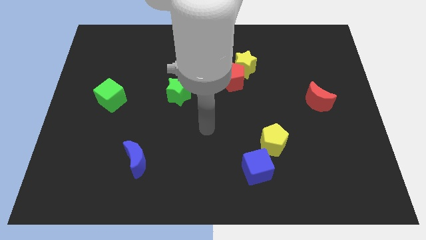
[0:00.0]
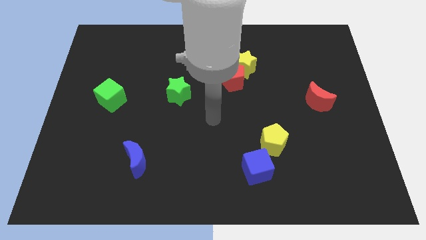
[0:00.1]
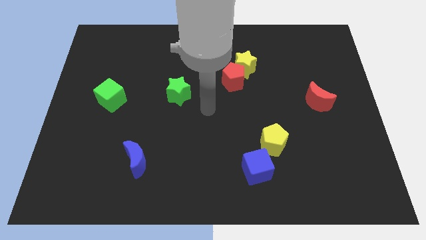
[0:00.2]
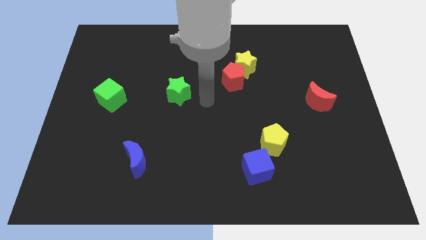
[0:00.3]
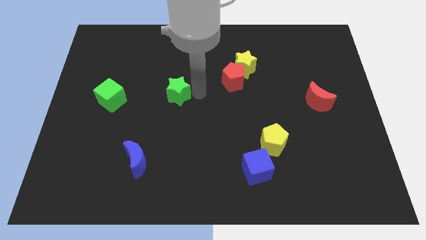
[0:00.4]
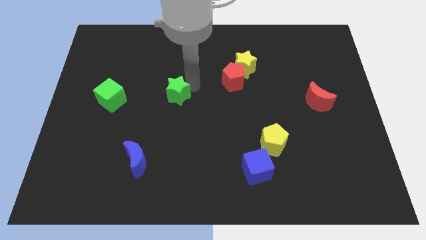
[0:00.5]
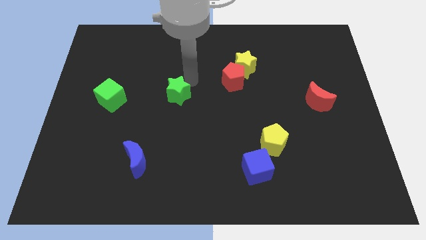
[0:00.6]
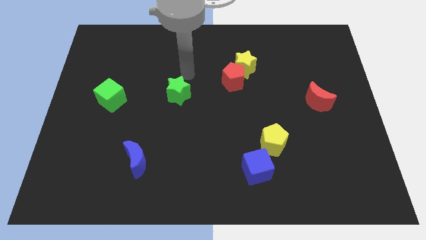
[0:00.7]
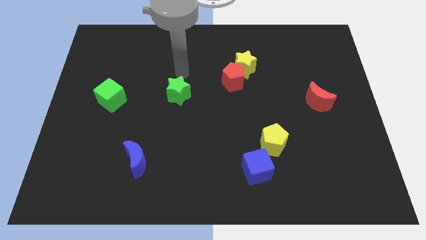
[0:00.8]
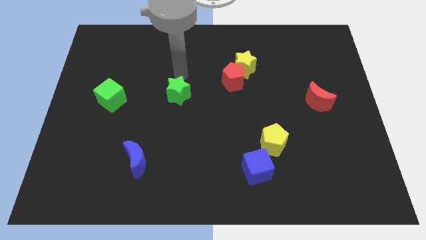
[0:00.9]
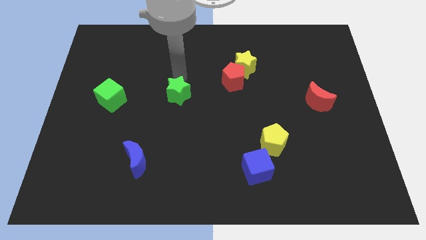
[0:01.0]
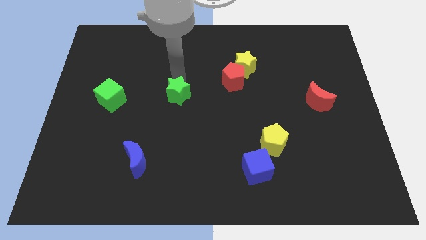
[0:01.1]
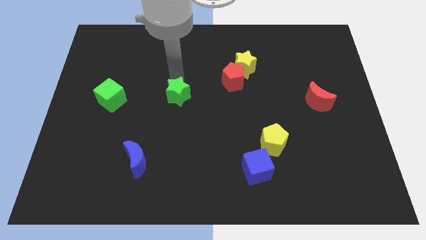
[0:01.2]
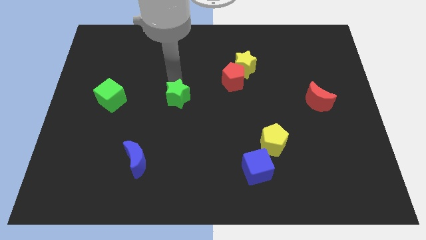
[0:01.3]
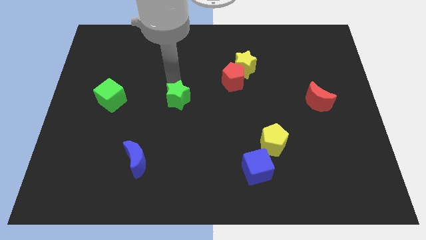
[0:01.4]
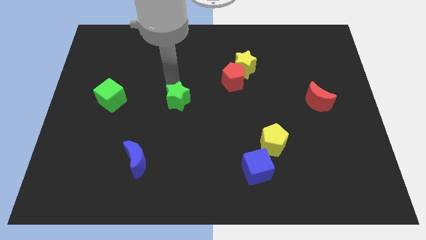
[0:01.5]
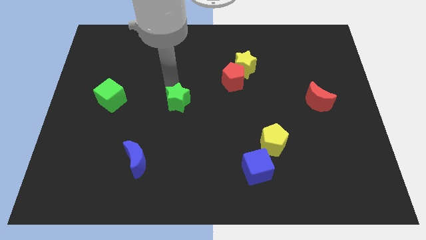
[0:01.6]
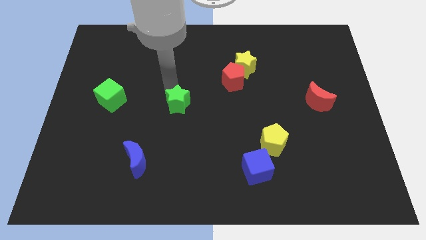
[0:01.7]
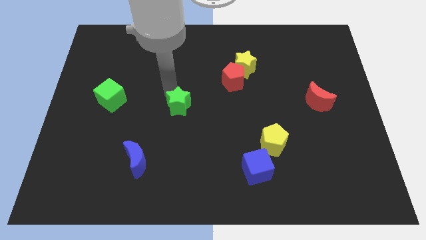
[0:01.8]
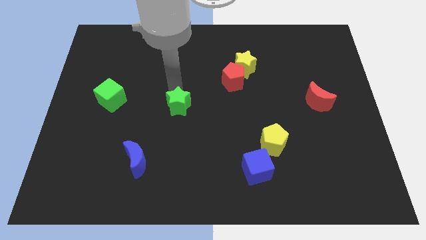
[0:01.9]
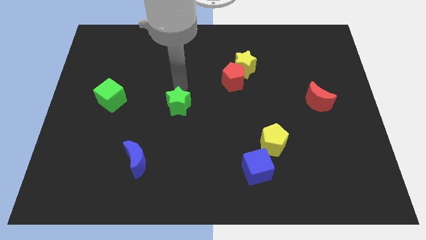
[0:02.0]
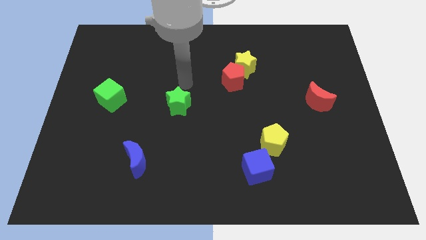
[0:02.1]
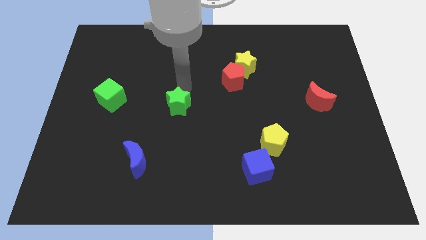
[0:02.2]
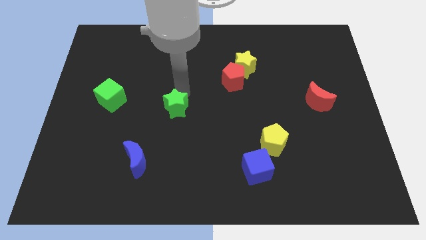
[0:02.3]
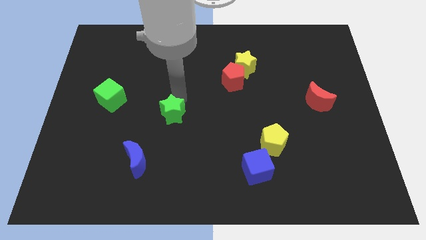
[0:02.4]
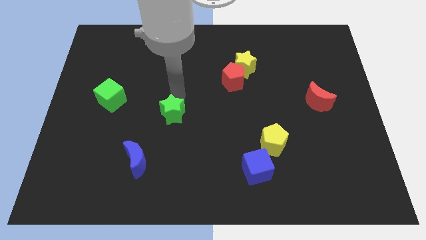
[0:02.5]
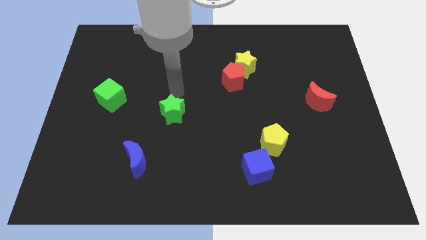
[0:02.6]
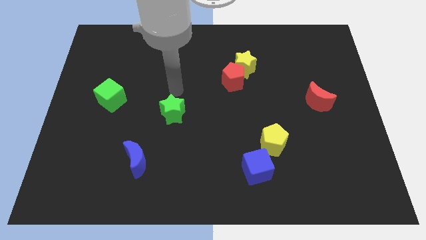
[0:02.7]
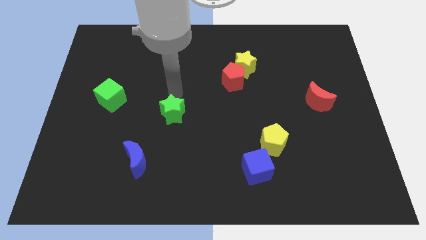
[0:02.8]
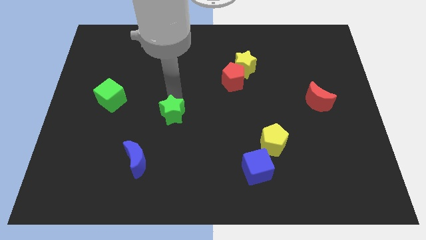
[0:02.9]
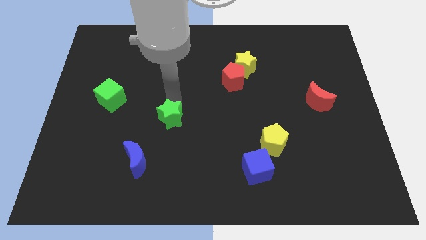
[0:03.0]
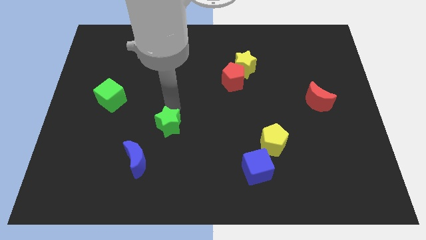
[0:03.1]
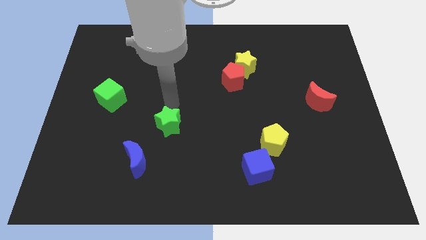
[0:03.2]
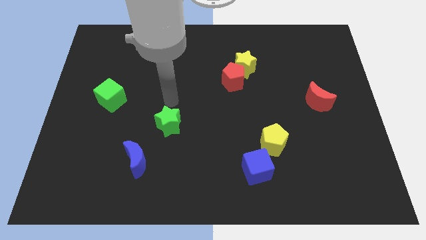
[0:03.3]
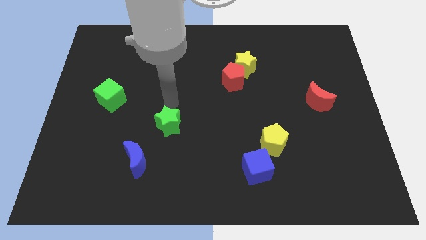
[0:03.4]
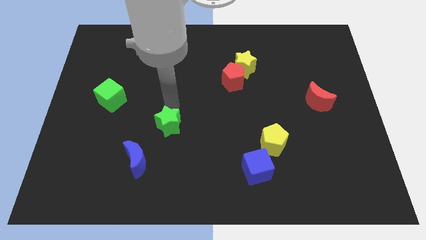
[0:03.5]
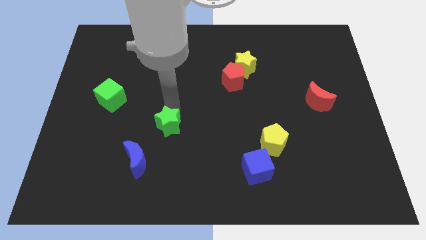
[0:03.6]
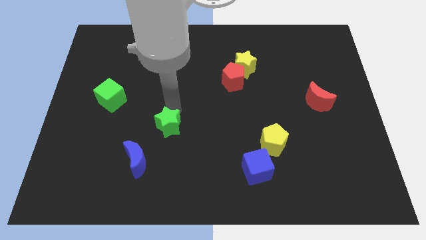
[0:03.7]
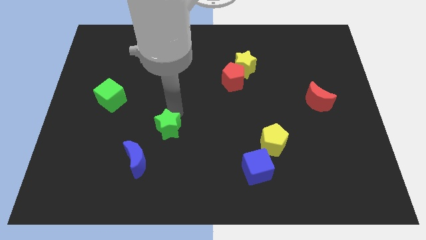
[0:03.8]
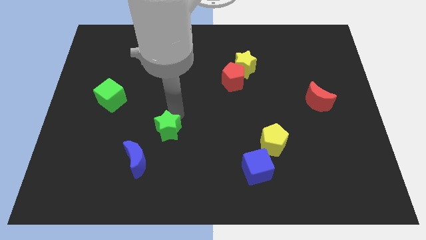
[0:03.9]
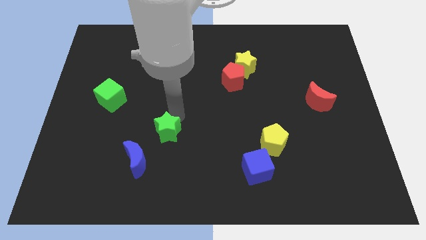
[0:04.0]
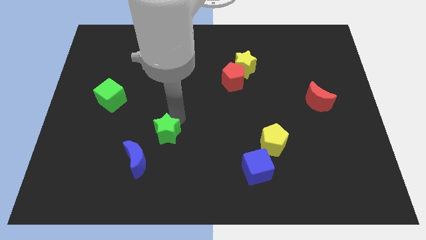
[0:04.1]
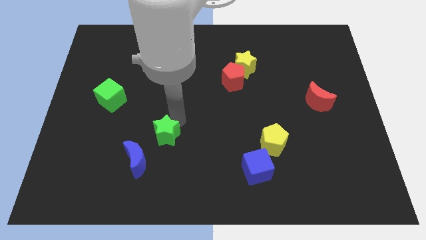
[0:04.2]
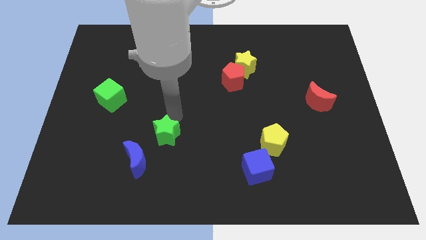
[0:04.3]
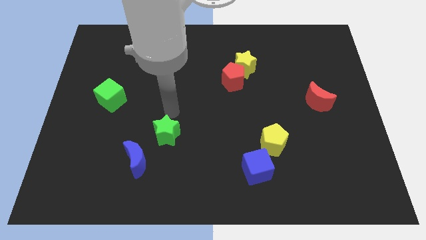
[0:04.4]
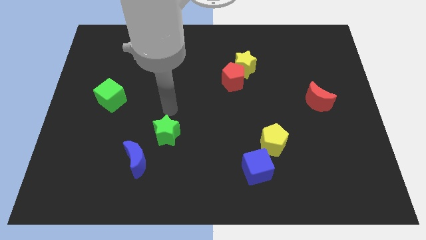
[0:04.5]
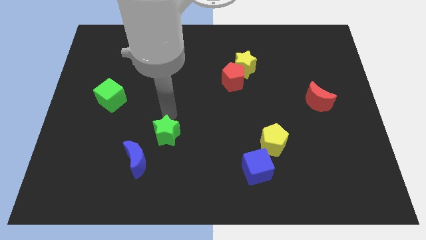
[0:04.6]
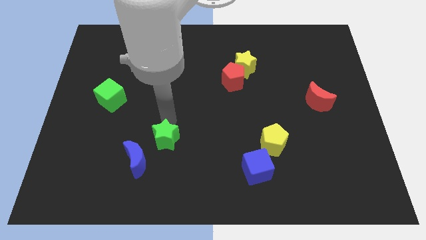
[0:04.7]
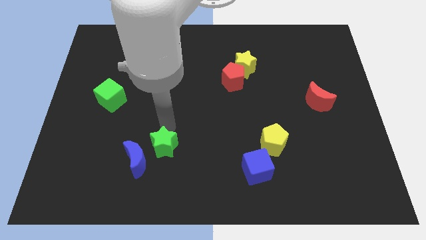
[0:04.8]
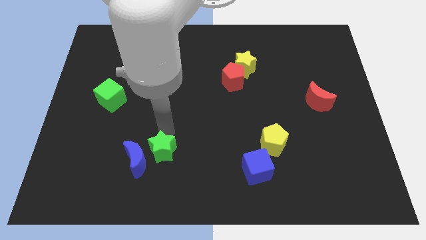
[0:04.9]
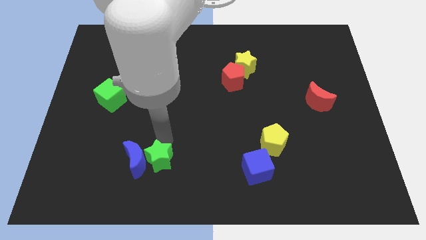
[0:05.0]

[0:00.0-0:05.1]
push the green star to the bottom right of the blue moon

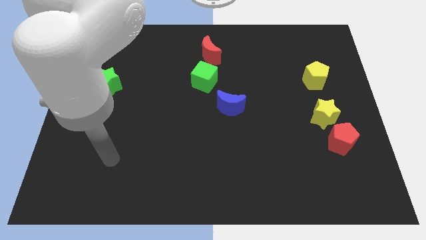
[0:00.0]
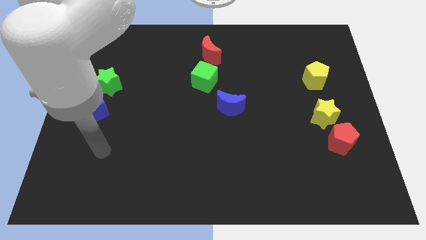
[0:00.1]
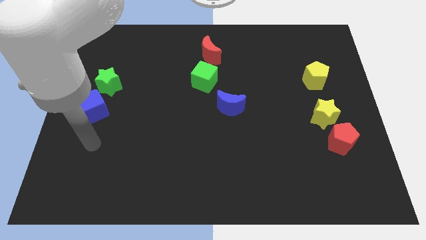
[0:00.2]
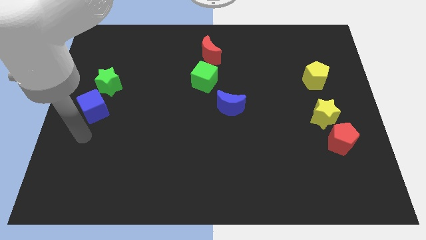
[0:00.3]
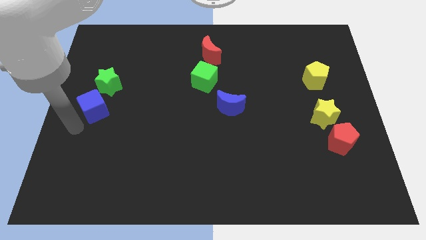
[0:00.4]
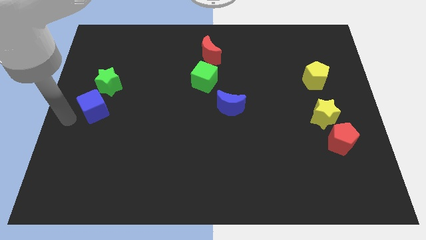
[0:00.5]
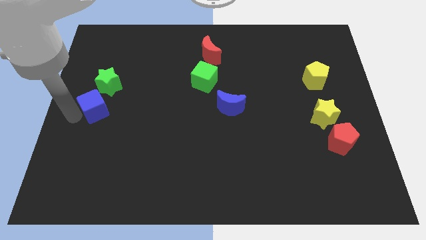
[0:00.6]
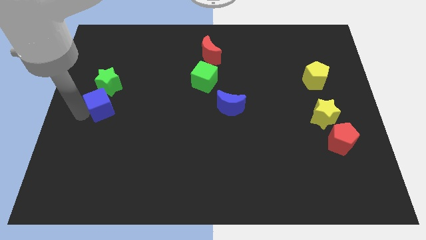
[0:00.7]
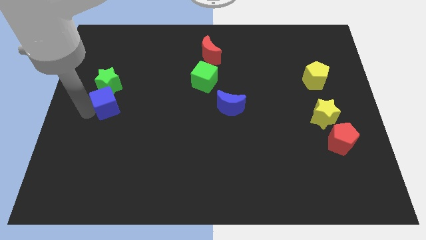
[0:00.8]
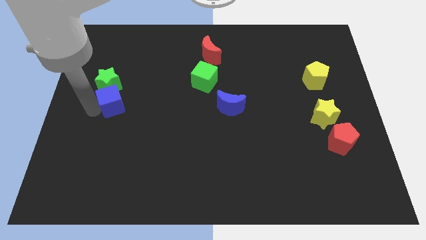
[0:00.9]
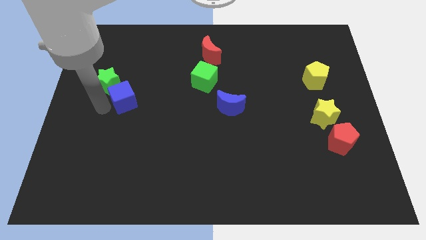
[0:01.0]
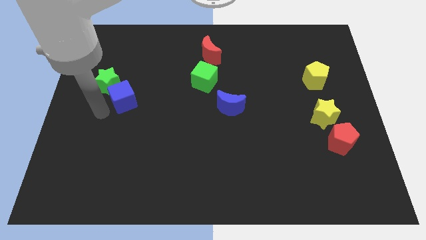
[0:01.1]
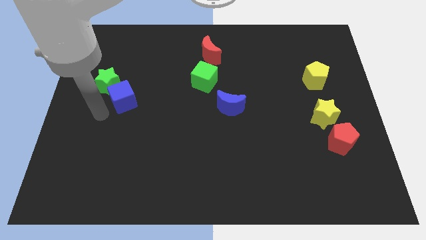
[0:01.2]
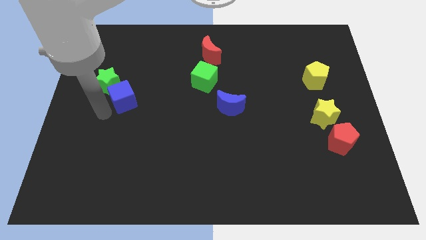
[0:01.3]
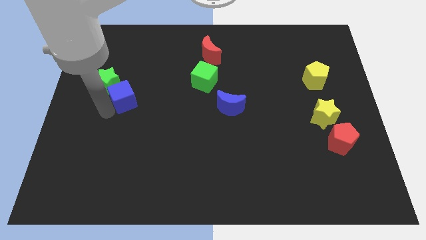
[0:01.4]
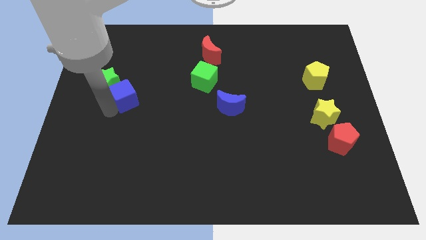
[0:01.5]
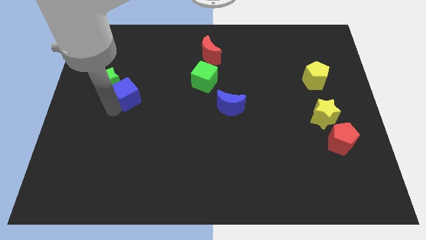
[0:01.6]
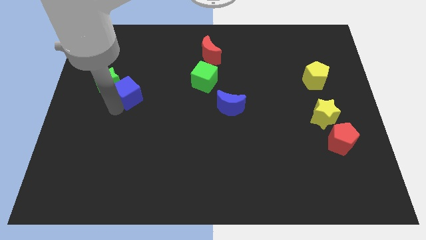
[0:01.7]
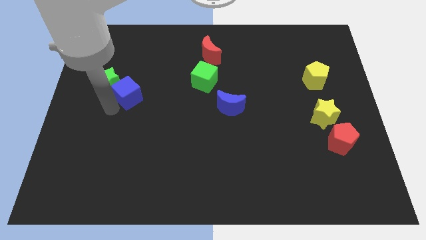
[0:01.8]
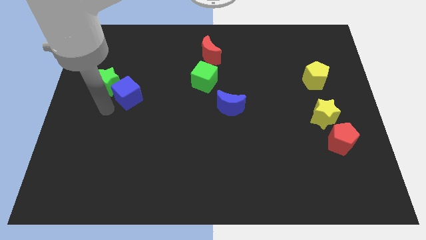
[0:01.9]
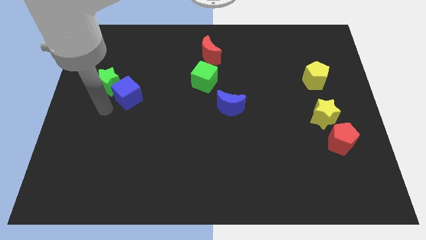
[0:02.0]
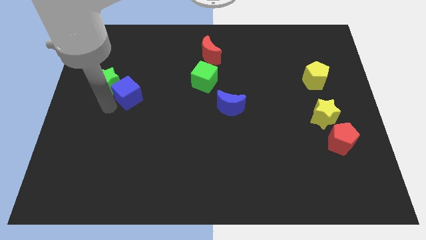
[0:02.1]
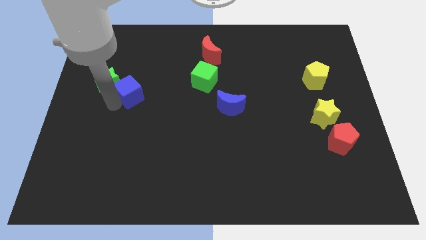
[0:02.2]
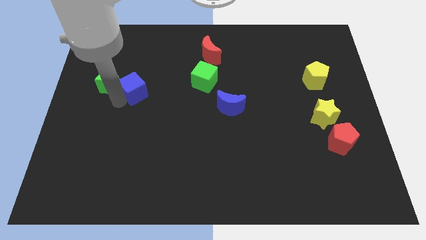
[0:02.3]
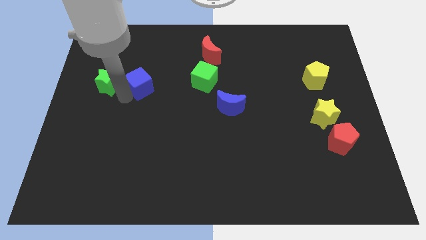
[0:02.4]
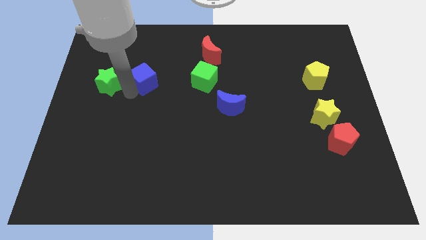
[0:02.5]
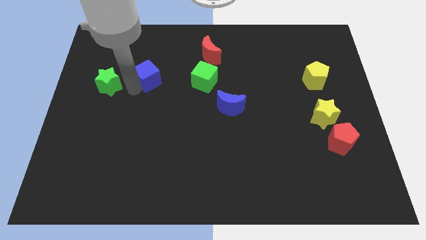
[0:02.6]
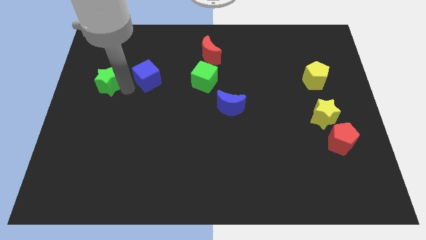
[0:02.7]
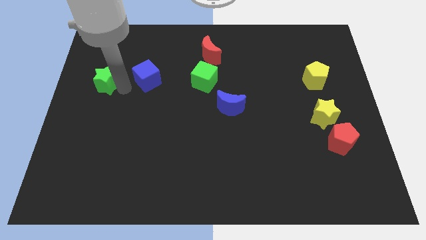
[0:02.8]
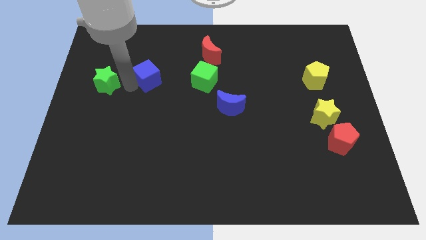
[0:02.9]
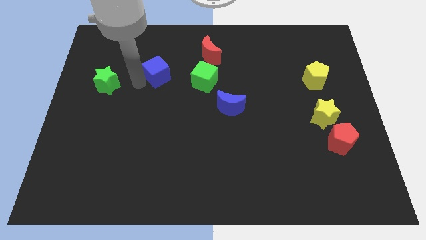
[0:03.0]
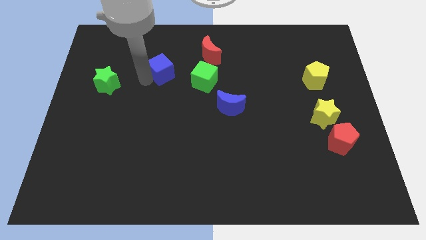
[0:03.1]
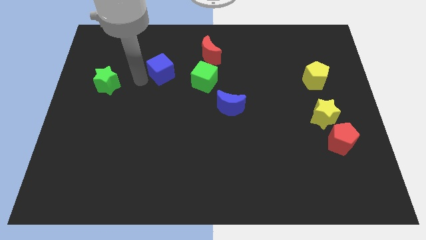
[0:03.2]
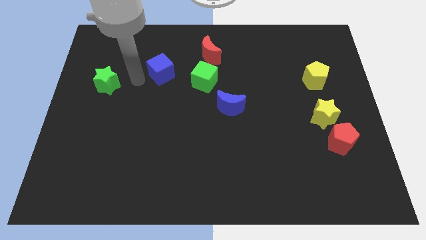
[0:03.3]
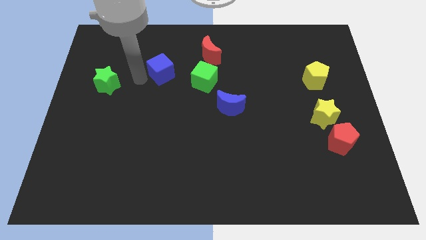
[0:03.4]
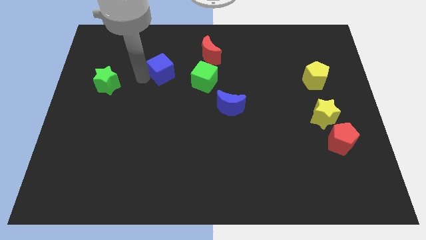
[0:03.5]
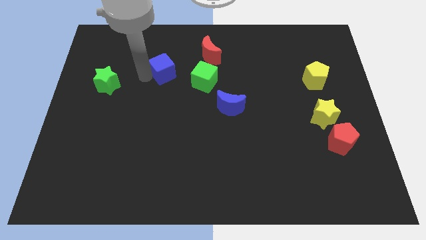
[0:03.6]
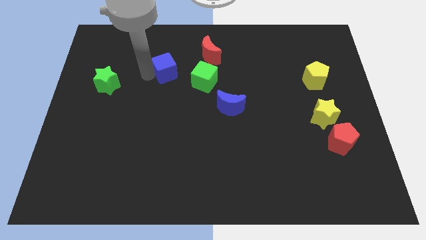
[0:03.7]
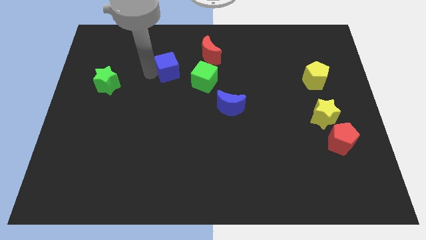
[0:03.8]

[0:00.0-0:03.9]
push the blue cube to the top left of the green cube
